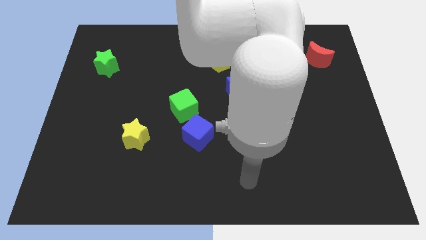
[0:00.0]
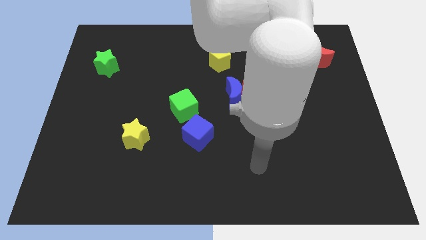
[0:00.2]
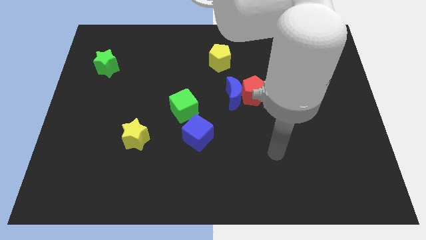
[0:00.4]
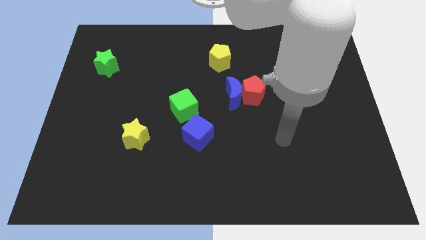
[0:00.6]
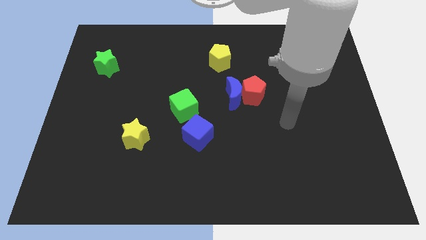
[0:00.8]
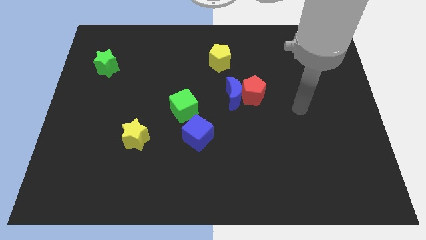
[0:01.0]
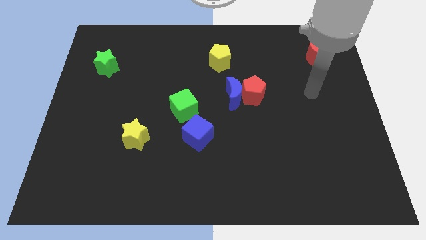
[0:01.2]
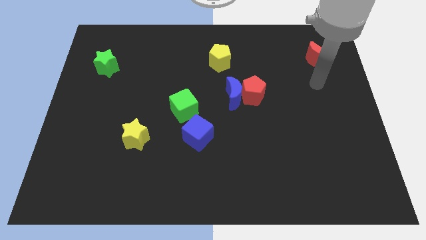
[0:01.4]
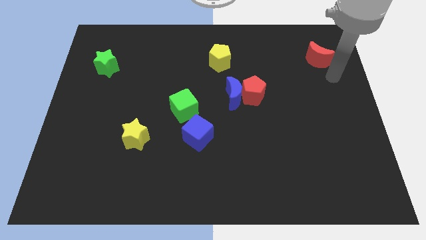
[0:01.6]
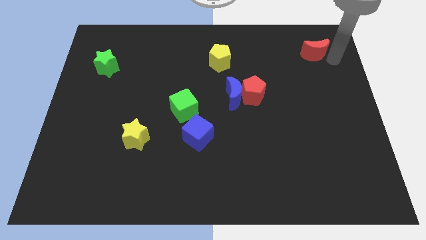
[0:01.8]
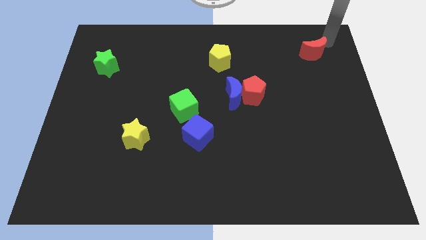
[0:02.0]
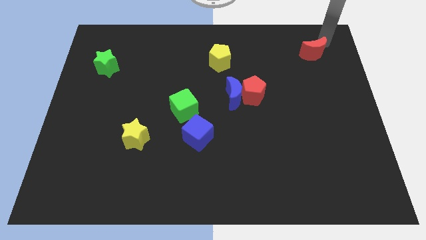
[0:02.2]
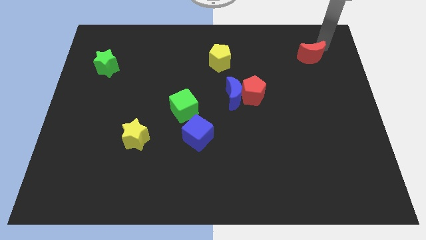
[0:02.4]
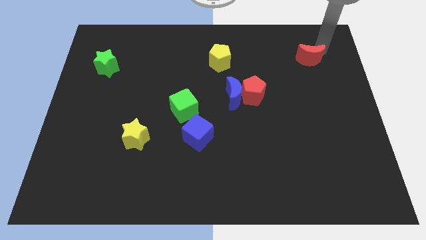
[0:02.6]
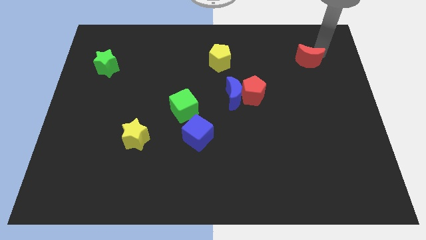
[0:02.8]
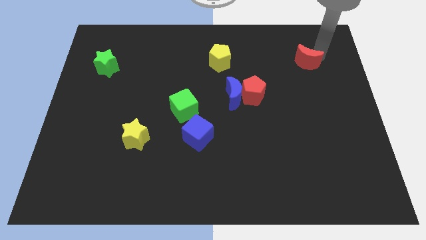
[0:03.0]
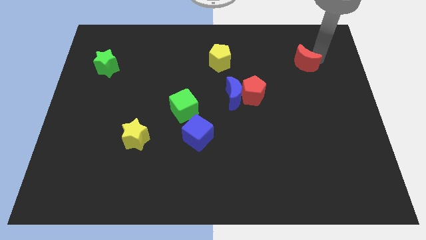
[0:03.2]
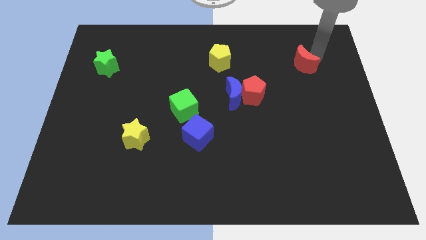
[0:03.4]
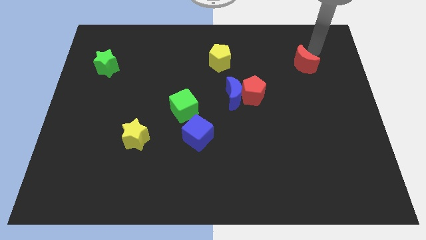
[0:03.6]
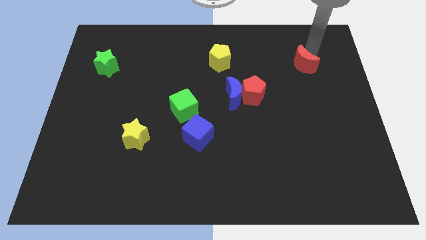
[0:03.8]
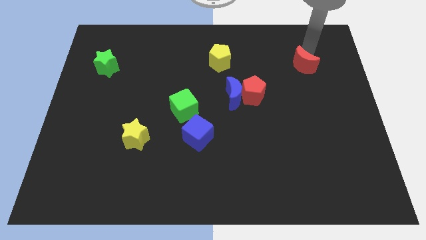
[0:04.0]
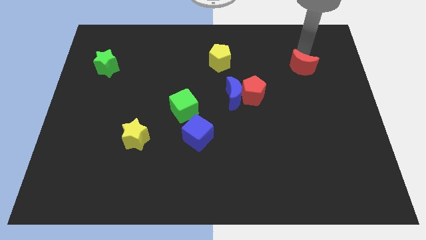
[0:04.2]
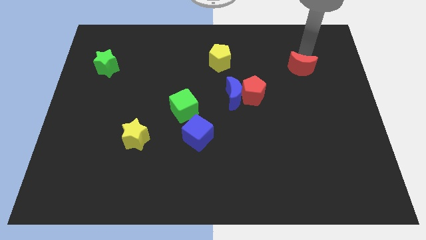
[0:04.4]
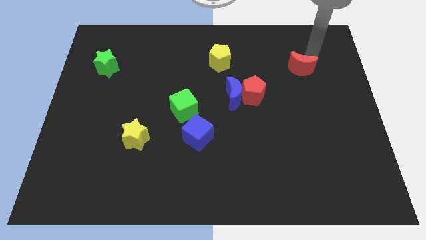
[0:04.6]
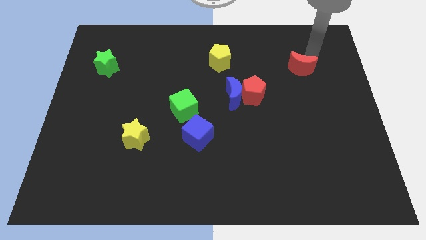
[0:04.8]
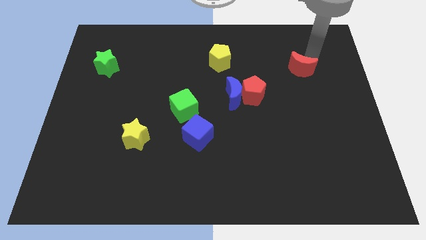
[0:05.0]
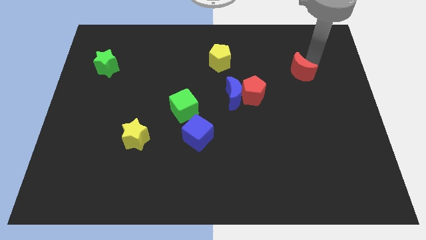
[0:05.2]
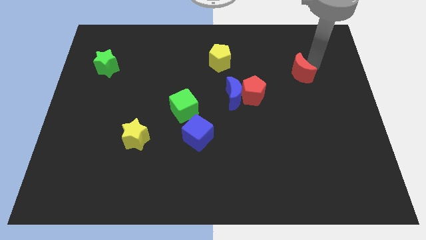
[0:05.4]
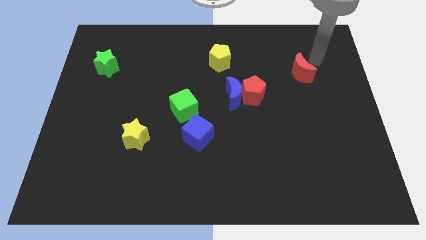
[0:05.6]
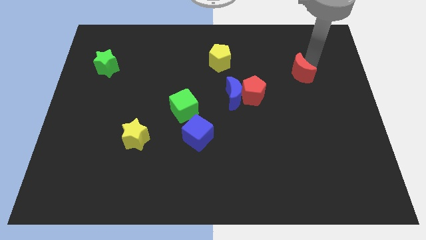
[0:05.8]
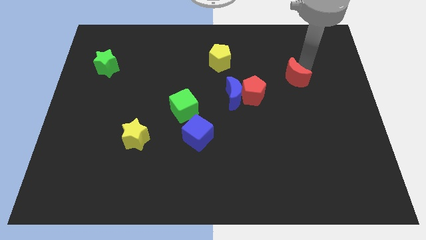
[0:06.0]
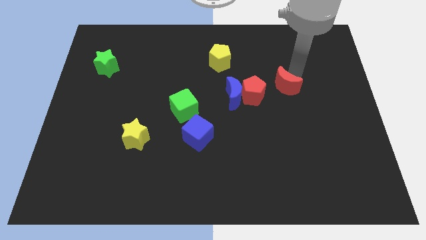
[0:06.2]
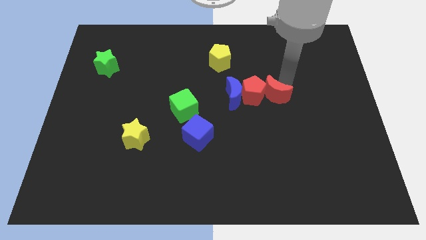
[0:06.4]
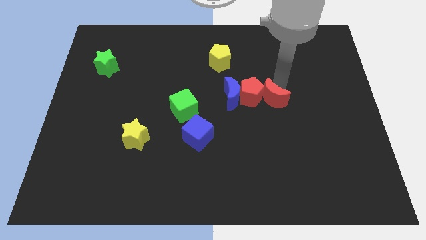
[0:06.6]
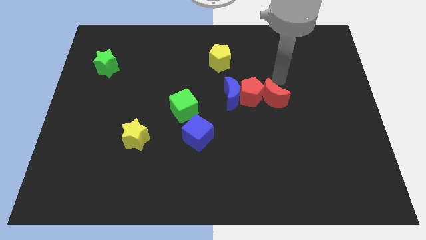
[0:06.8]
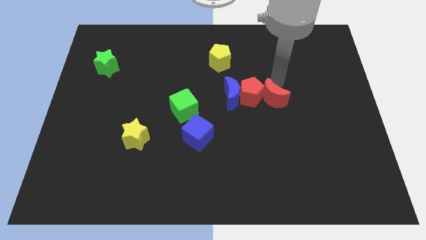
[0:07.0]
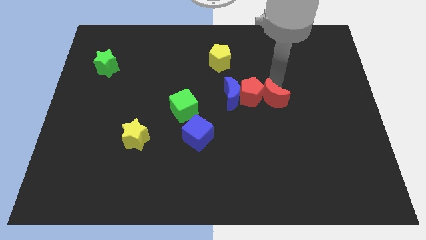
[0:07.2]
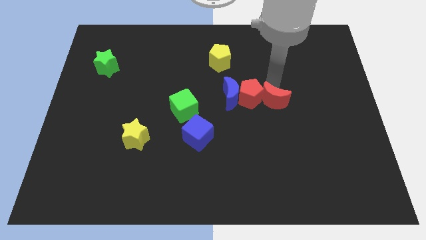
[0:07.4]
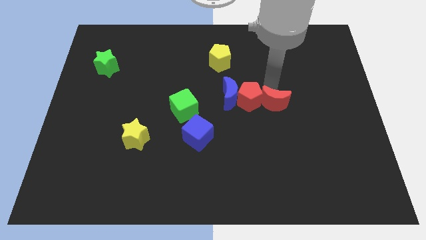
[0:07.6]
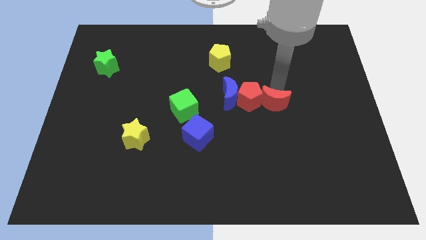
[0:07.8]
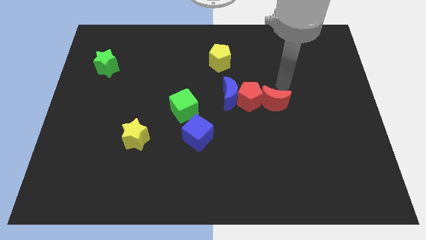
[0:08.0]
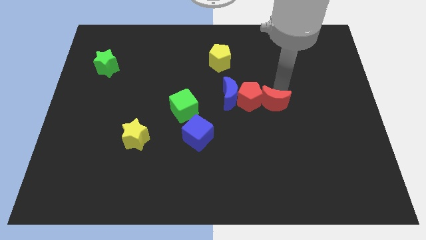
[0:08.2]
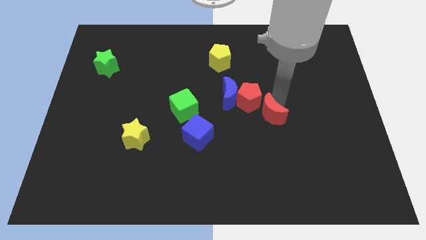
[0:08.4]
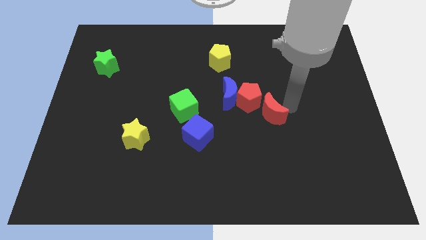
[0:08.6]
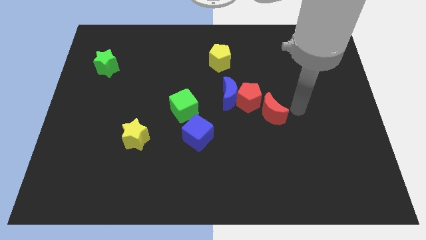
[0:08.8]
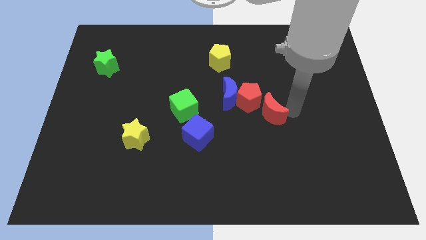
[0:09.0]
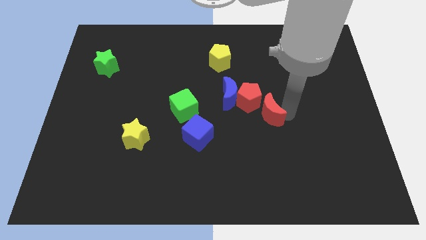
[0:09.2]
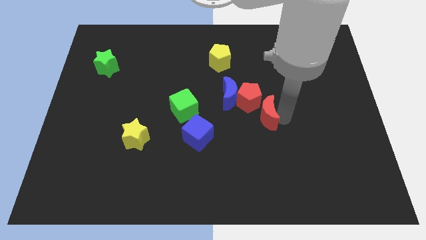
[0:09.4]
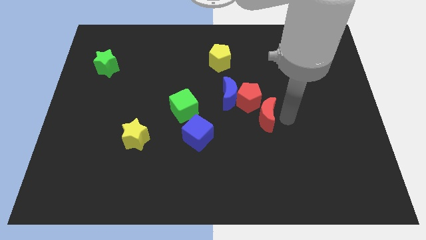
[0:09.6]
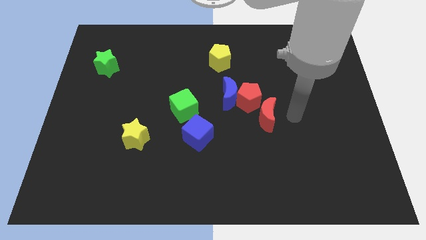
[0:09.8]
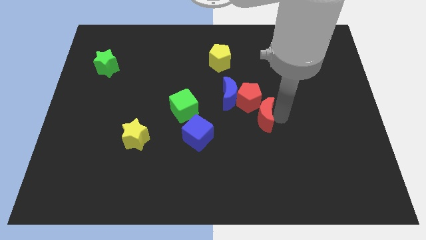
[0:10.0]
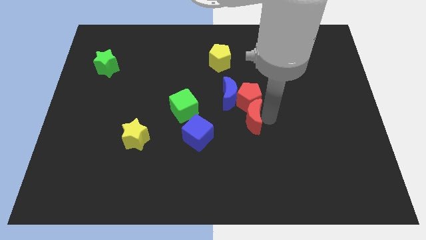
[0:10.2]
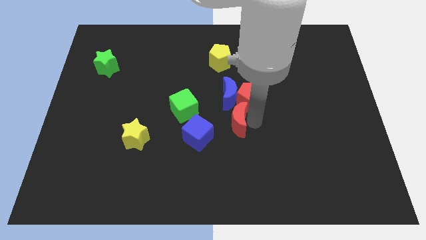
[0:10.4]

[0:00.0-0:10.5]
move the red moon to the top right side of the blue cube

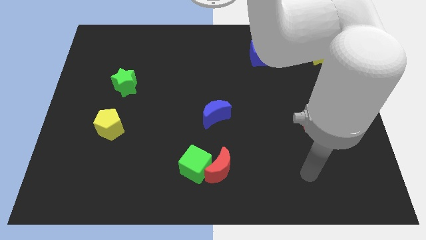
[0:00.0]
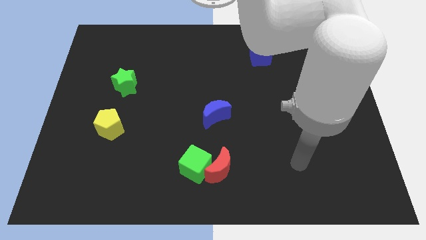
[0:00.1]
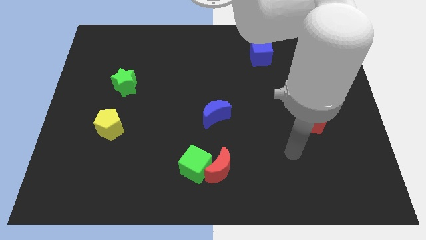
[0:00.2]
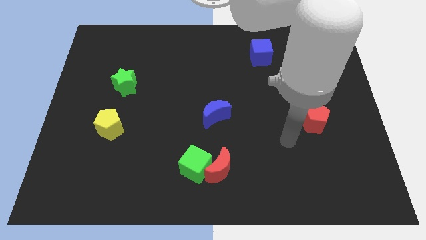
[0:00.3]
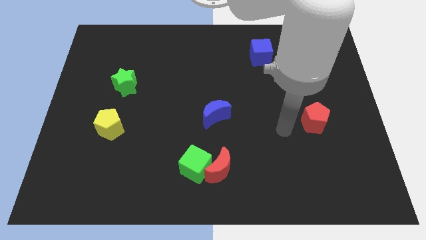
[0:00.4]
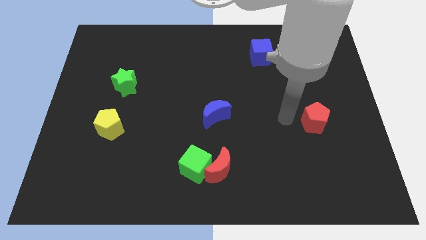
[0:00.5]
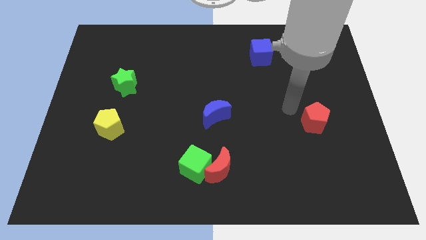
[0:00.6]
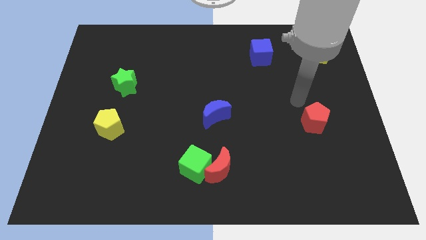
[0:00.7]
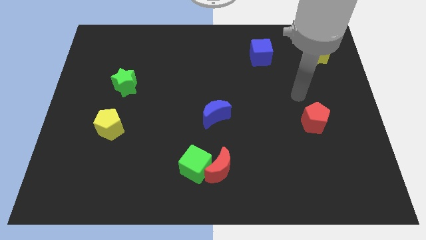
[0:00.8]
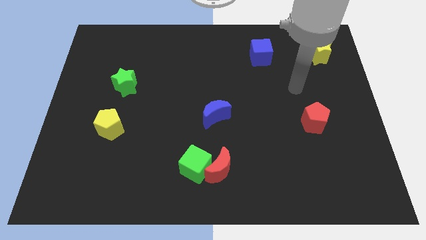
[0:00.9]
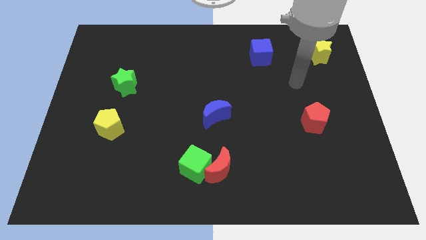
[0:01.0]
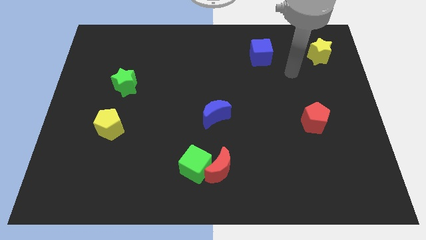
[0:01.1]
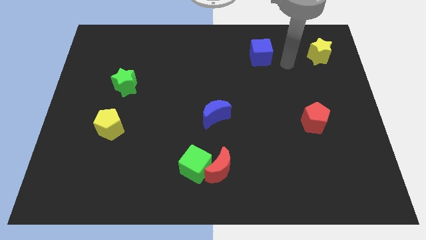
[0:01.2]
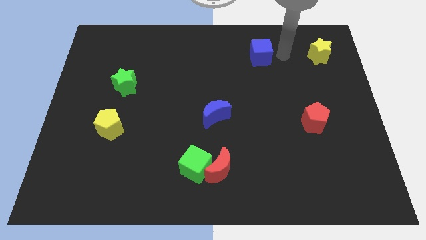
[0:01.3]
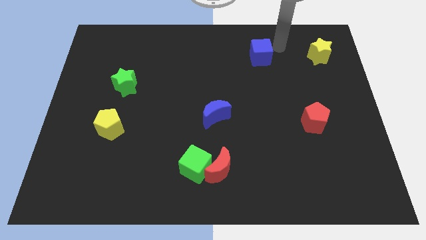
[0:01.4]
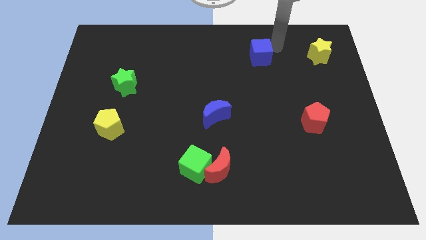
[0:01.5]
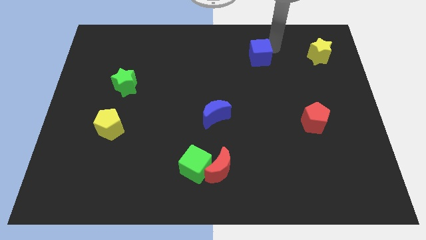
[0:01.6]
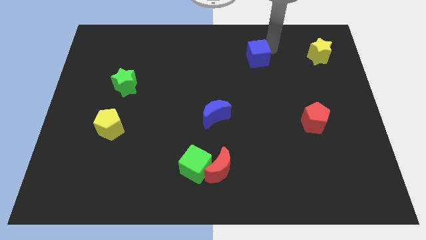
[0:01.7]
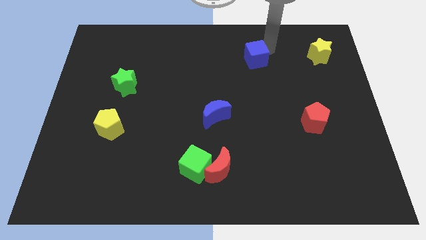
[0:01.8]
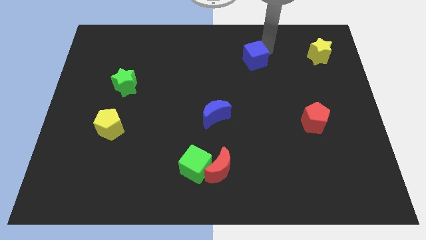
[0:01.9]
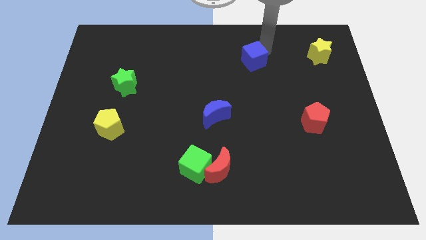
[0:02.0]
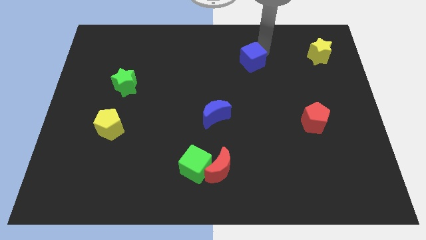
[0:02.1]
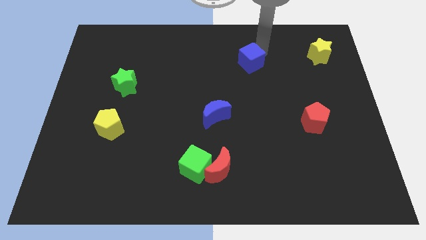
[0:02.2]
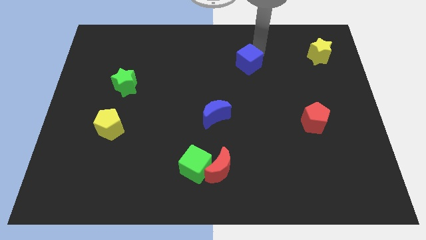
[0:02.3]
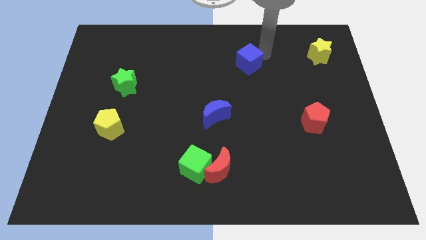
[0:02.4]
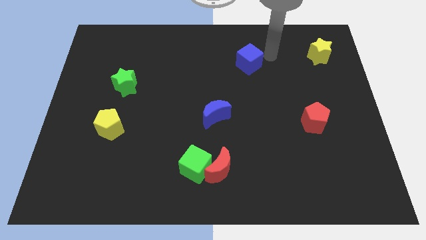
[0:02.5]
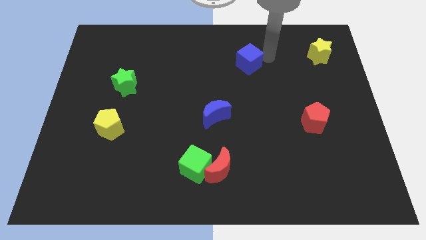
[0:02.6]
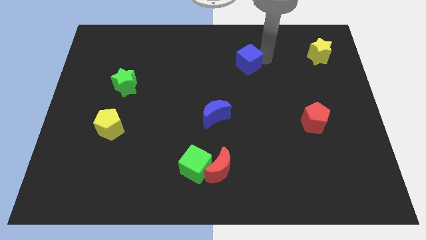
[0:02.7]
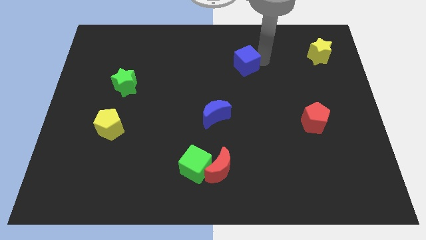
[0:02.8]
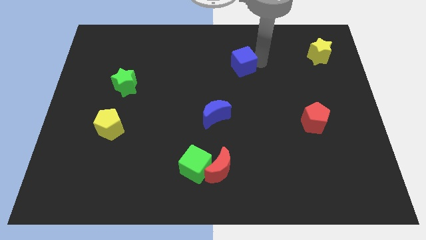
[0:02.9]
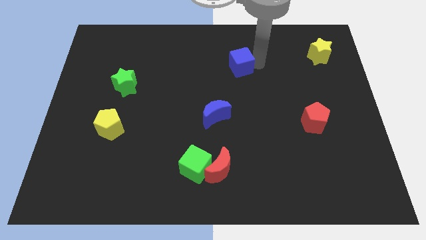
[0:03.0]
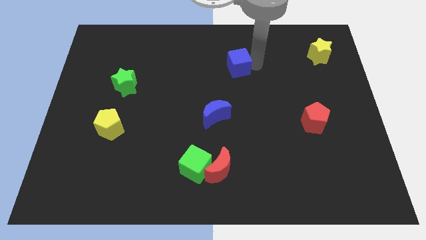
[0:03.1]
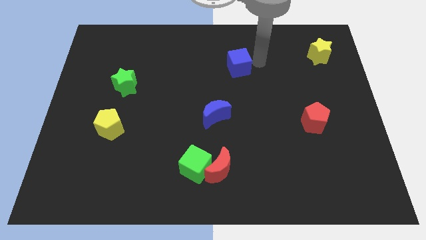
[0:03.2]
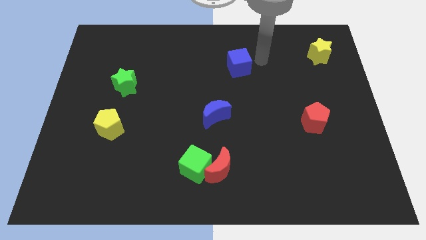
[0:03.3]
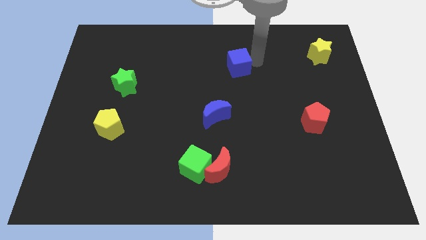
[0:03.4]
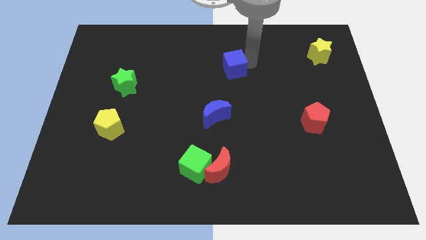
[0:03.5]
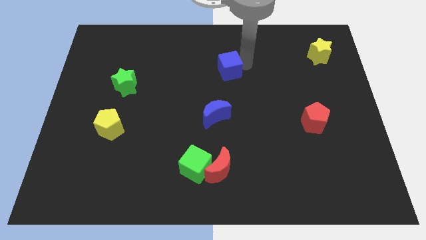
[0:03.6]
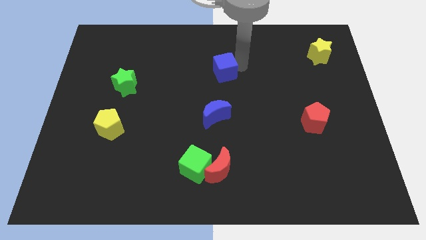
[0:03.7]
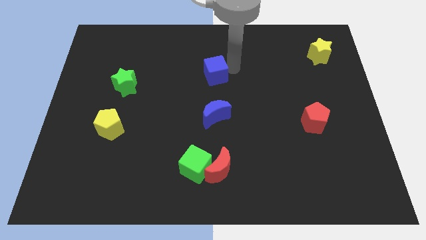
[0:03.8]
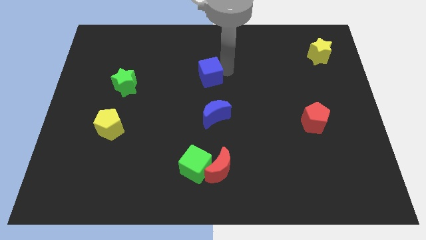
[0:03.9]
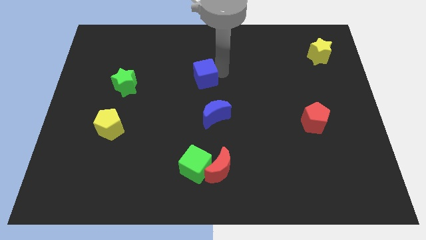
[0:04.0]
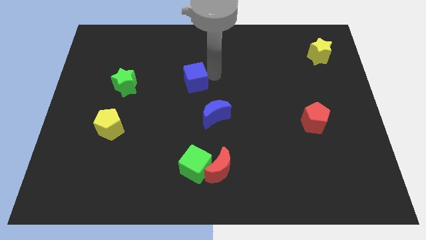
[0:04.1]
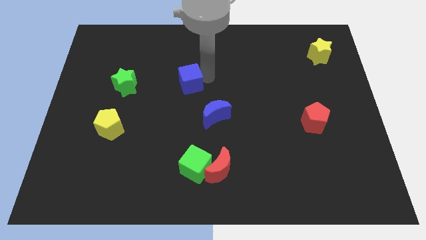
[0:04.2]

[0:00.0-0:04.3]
slide the blue cube to the right of the green star
